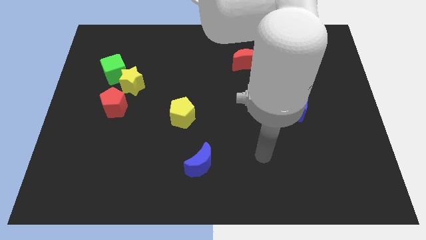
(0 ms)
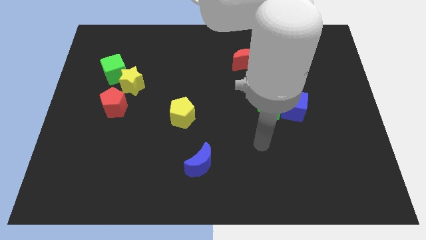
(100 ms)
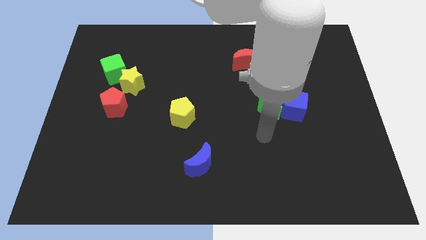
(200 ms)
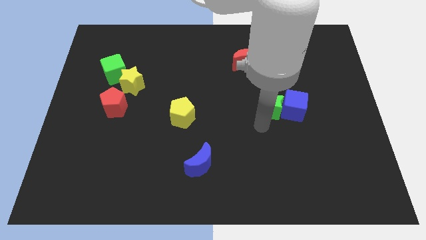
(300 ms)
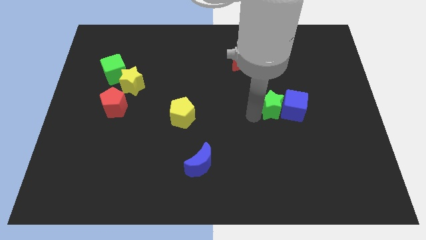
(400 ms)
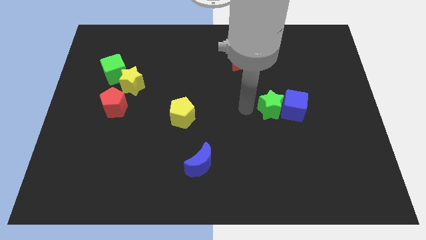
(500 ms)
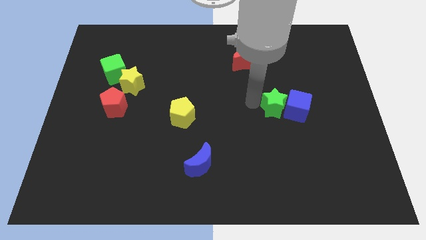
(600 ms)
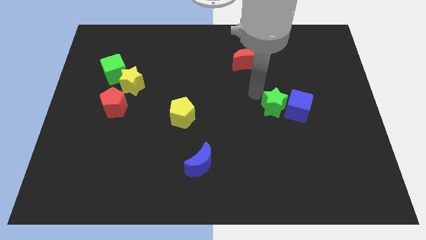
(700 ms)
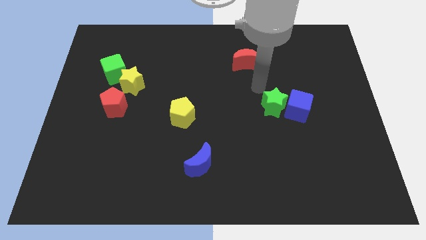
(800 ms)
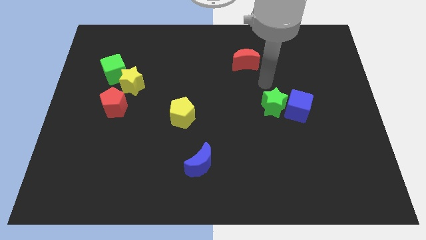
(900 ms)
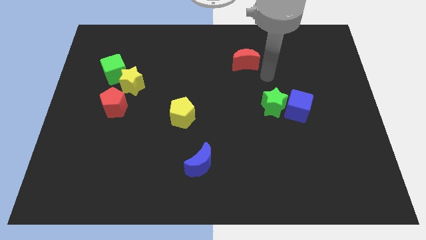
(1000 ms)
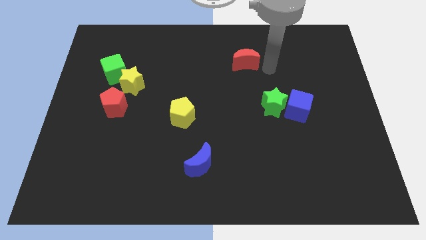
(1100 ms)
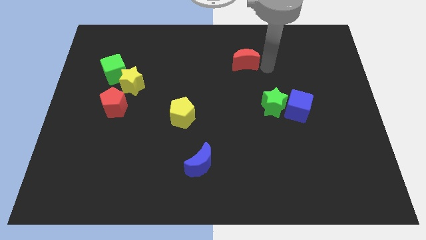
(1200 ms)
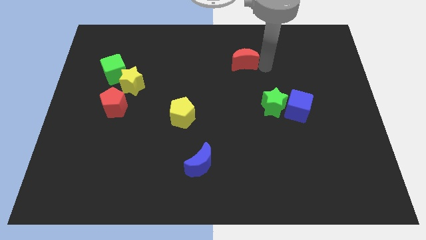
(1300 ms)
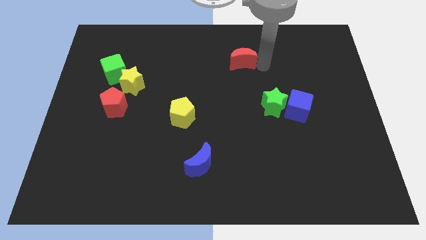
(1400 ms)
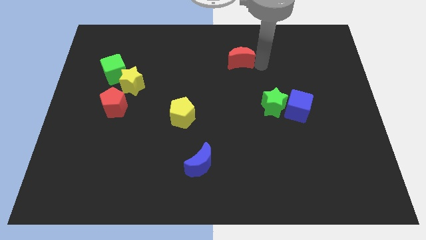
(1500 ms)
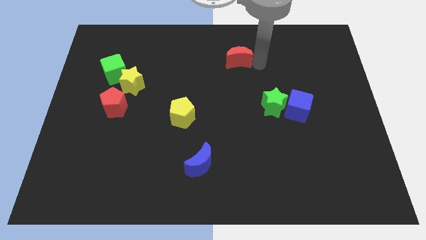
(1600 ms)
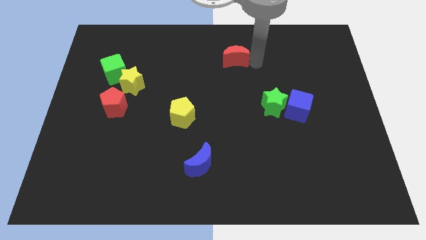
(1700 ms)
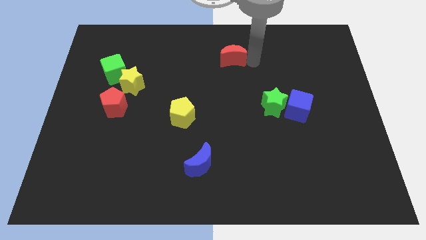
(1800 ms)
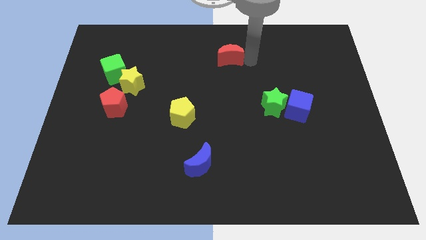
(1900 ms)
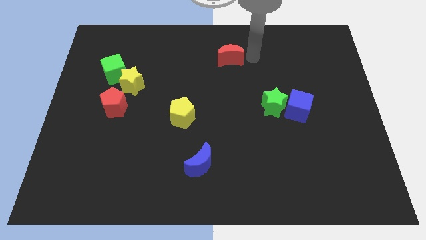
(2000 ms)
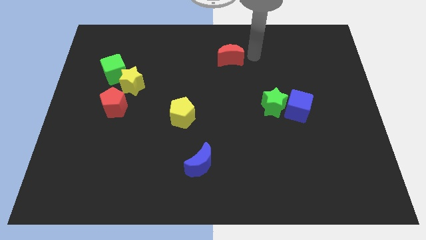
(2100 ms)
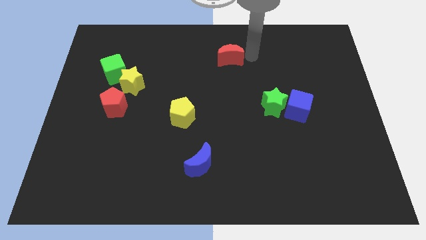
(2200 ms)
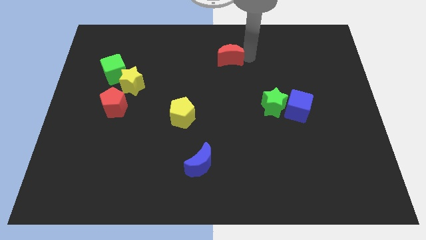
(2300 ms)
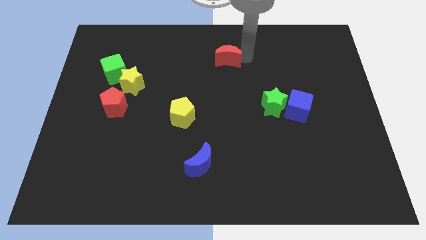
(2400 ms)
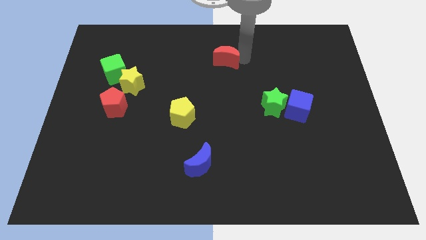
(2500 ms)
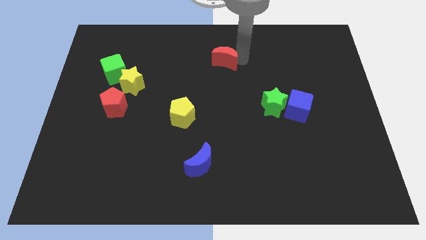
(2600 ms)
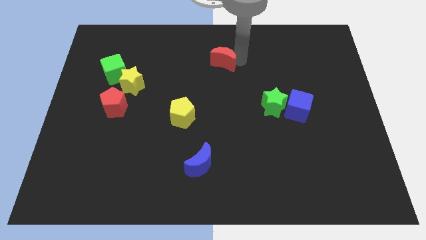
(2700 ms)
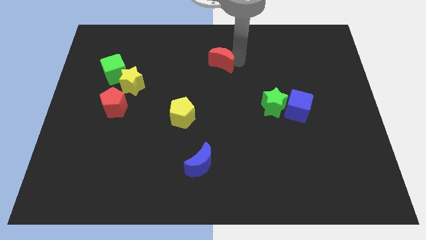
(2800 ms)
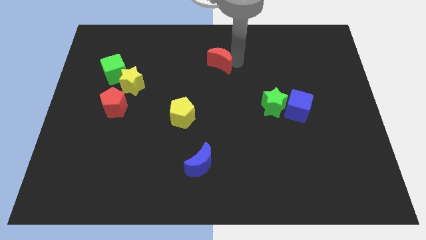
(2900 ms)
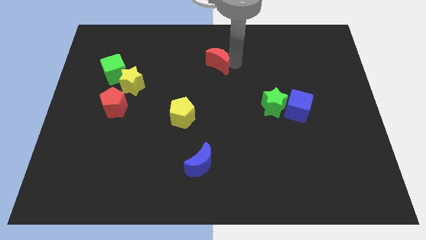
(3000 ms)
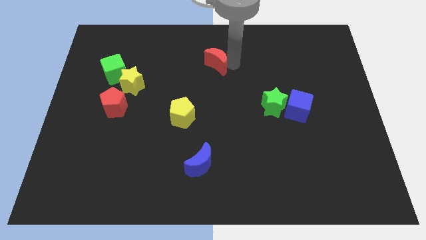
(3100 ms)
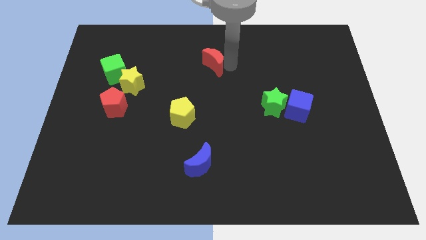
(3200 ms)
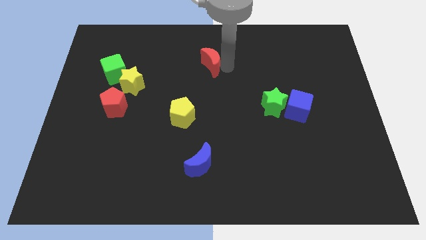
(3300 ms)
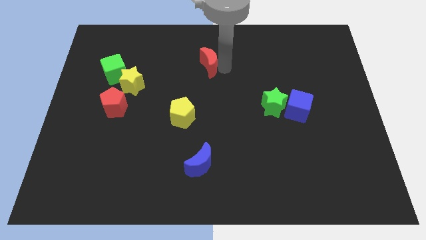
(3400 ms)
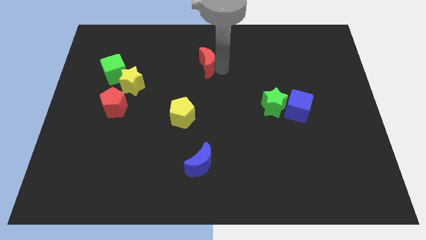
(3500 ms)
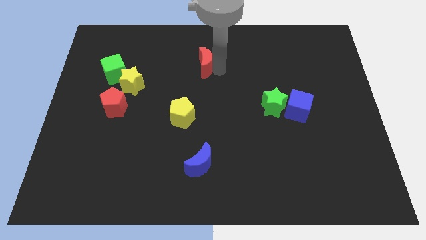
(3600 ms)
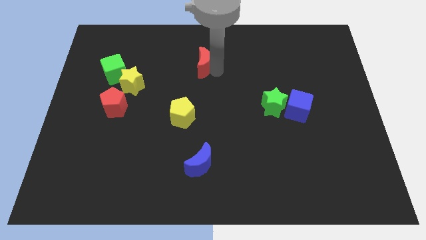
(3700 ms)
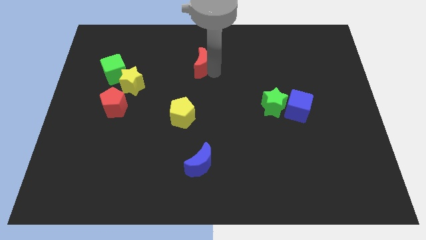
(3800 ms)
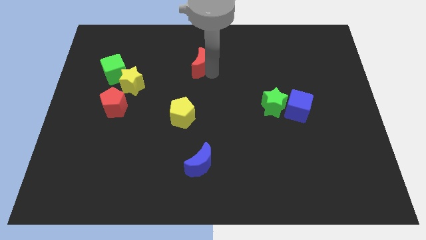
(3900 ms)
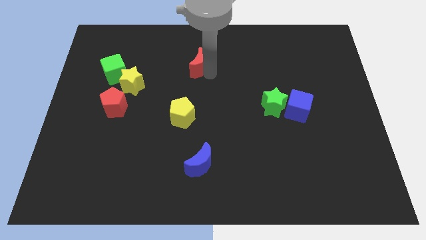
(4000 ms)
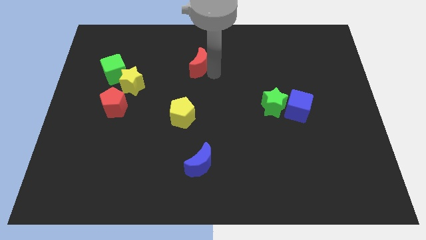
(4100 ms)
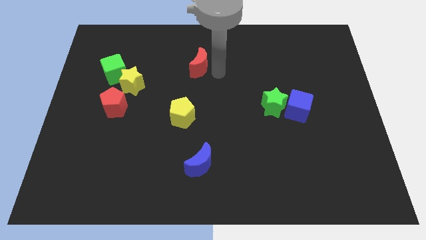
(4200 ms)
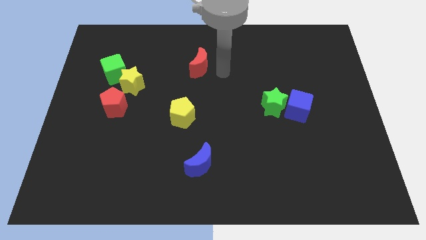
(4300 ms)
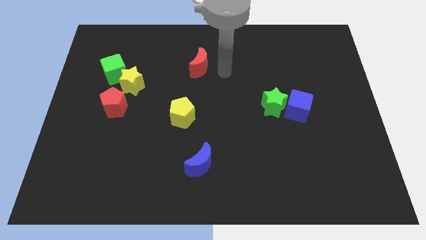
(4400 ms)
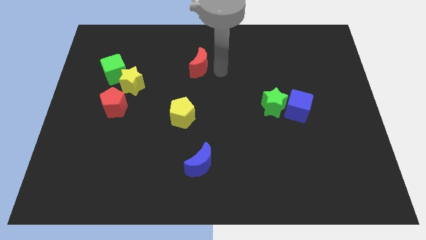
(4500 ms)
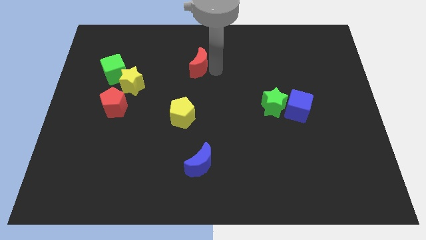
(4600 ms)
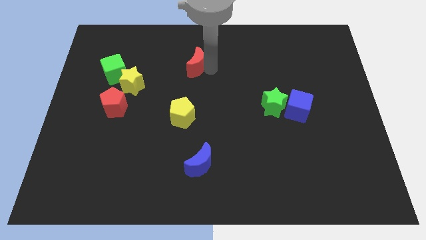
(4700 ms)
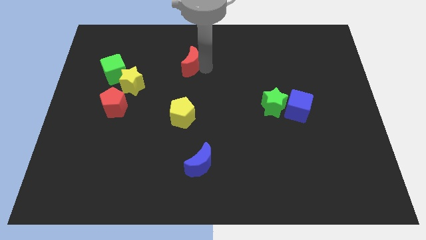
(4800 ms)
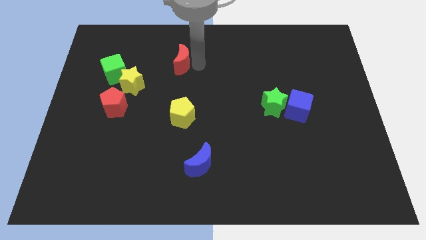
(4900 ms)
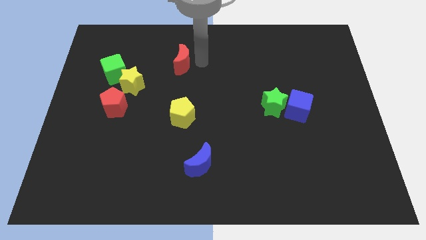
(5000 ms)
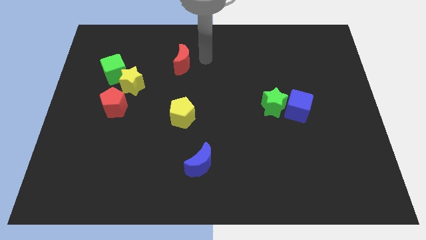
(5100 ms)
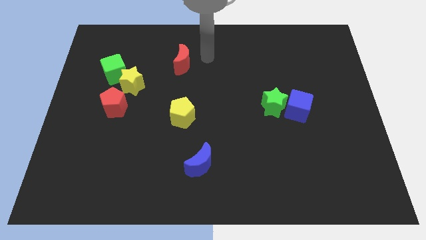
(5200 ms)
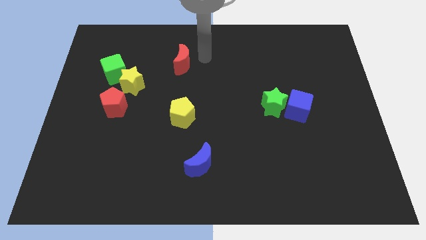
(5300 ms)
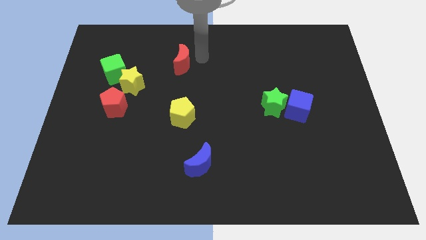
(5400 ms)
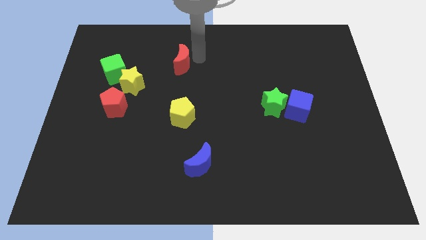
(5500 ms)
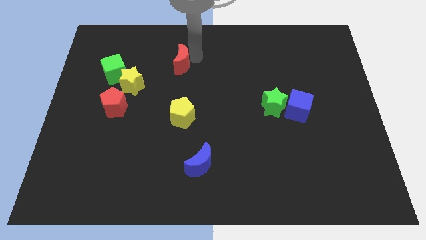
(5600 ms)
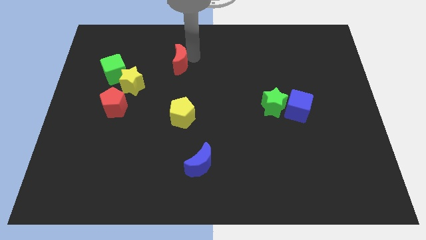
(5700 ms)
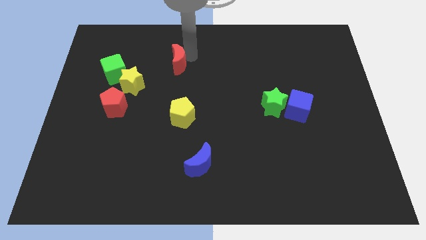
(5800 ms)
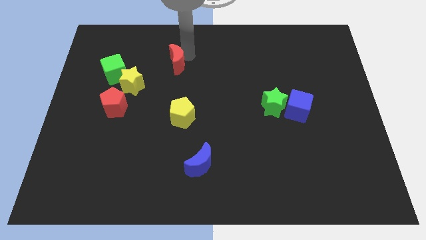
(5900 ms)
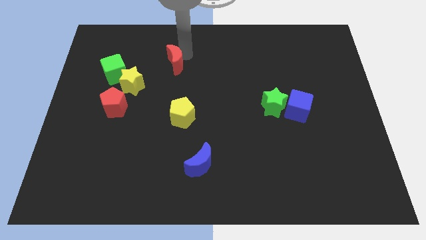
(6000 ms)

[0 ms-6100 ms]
push the red moon diagonally up and to the right of the yellow star

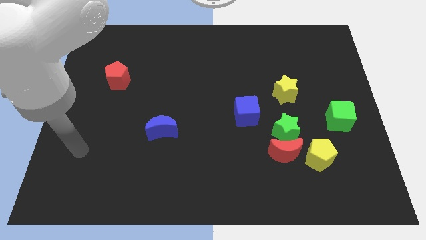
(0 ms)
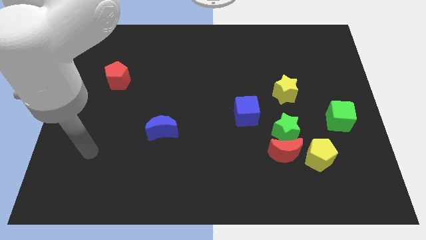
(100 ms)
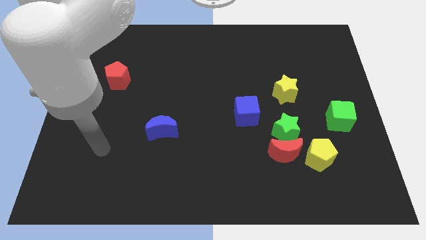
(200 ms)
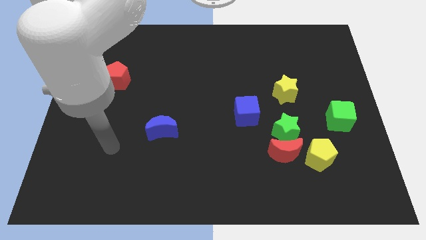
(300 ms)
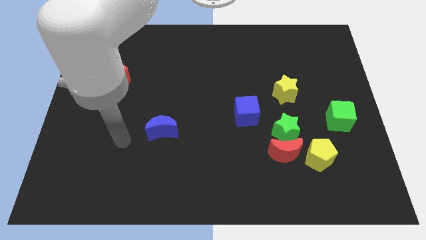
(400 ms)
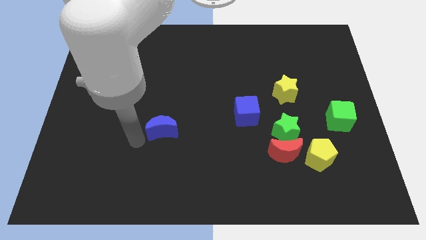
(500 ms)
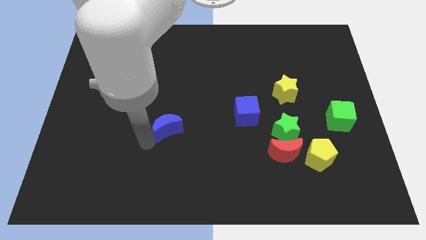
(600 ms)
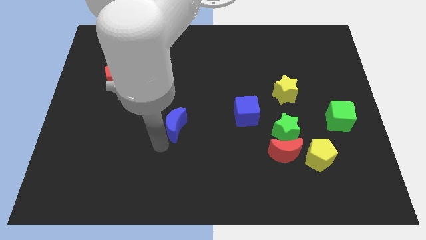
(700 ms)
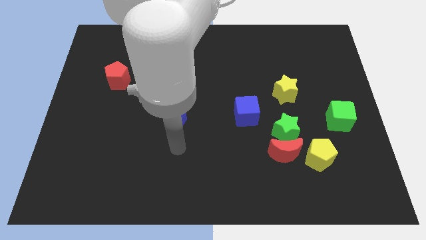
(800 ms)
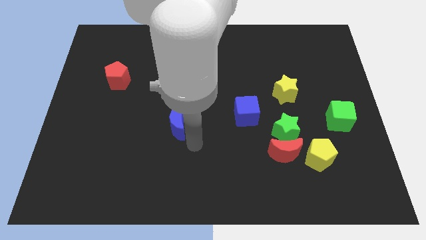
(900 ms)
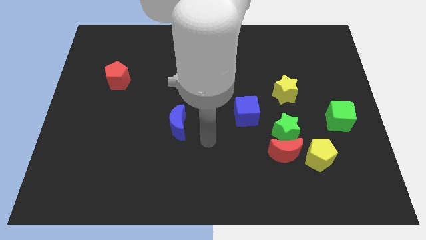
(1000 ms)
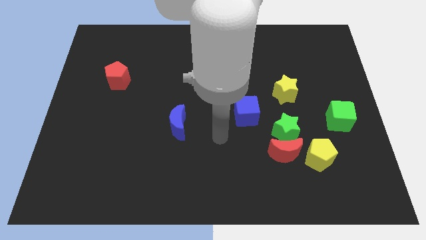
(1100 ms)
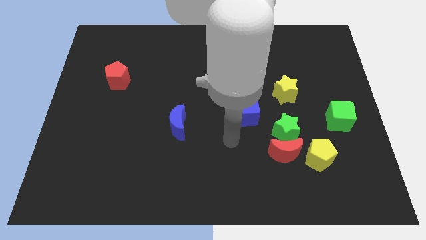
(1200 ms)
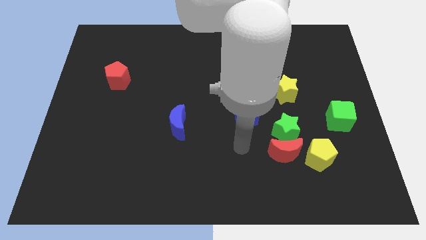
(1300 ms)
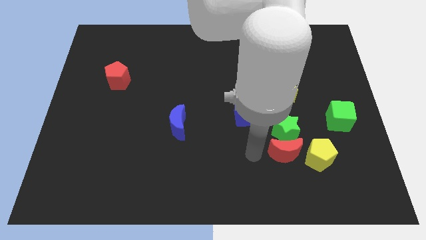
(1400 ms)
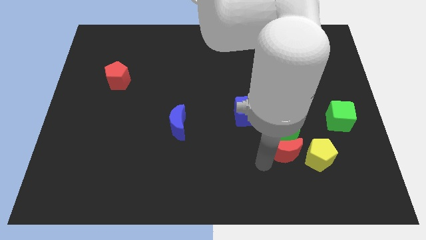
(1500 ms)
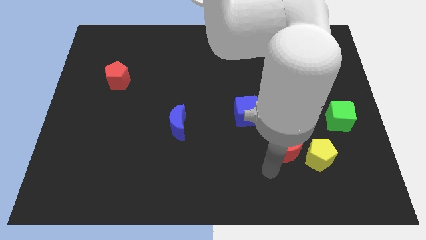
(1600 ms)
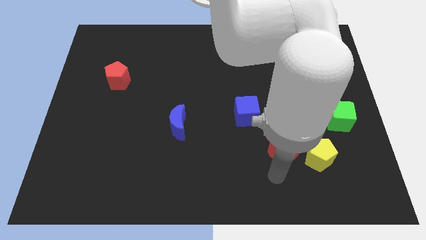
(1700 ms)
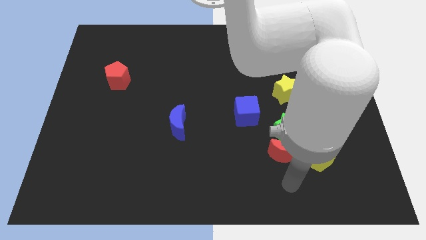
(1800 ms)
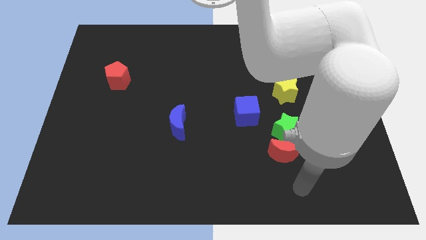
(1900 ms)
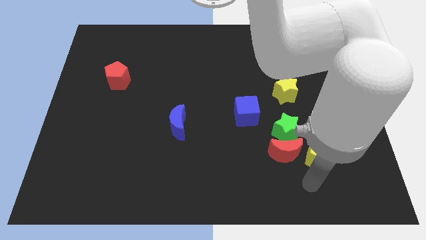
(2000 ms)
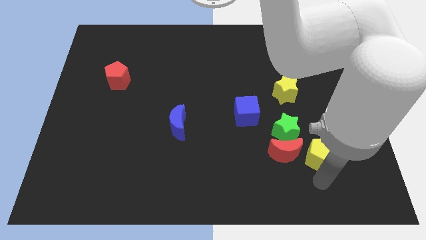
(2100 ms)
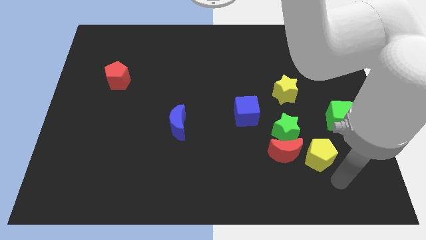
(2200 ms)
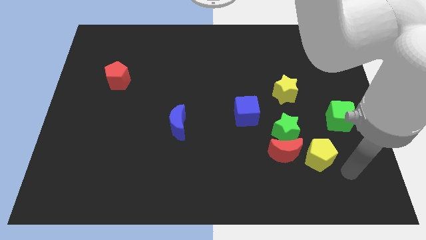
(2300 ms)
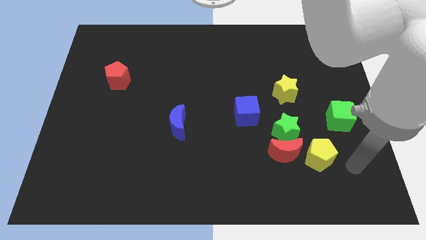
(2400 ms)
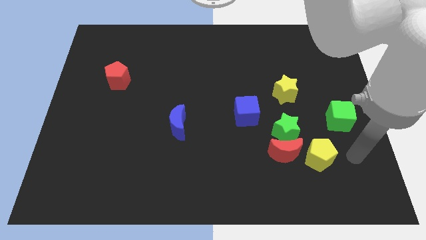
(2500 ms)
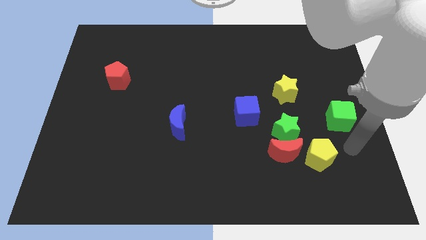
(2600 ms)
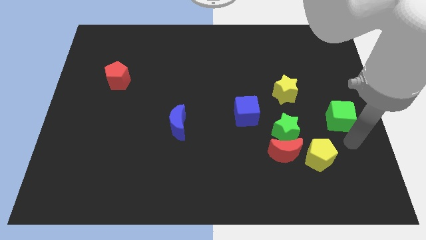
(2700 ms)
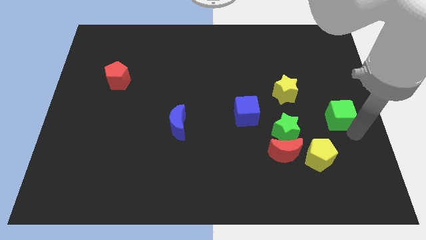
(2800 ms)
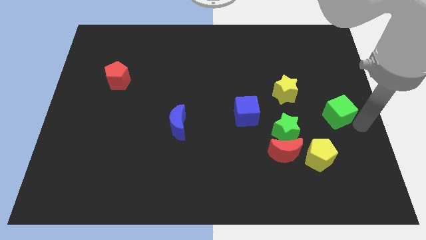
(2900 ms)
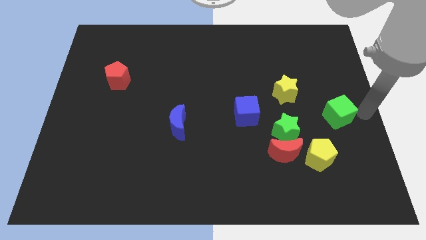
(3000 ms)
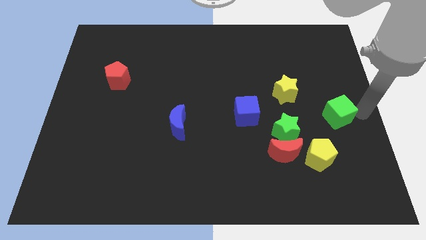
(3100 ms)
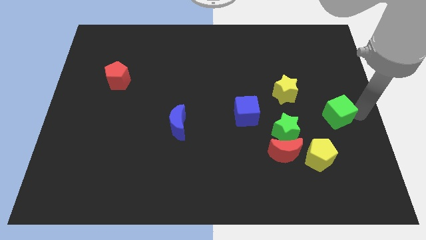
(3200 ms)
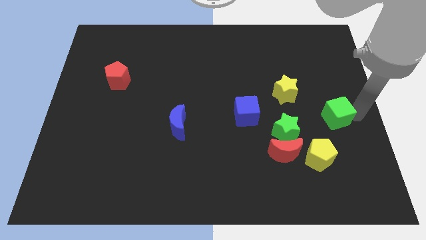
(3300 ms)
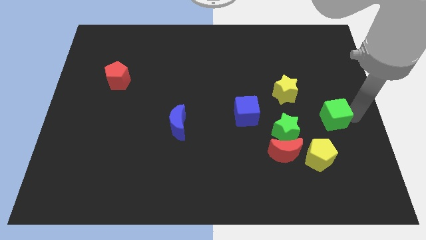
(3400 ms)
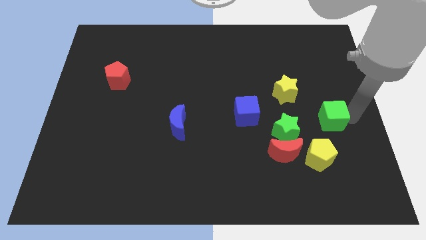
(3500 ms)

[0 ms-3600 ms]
push the green cube above the yellow pentagon
